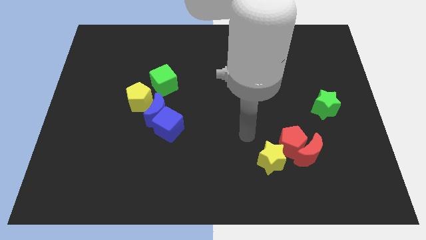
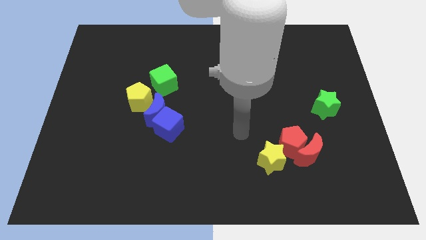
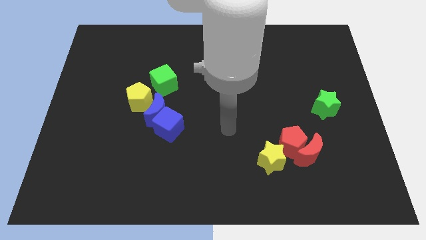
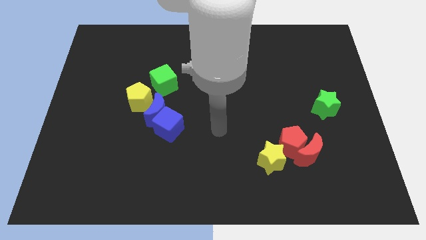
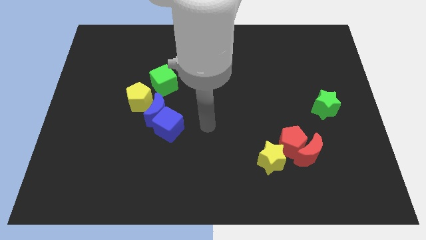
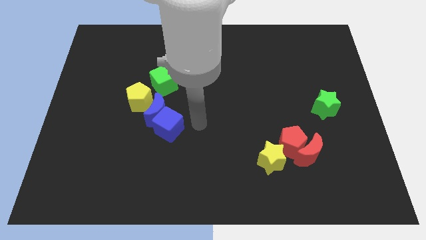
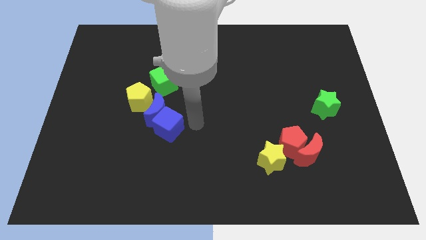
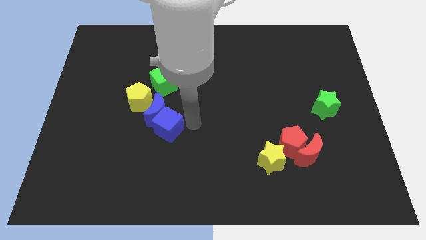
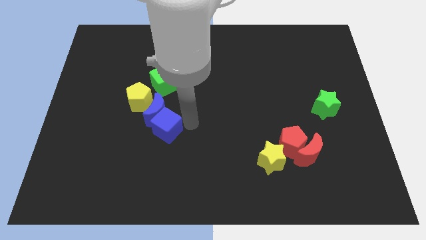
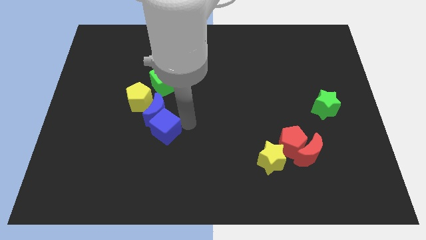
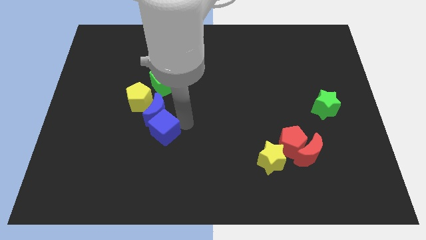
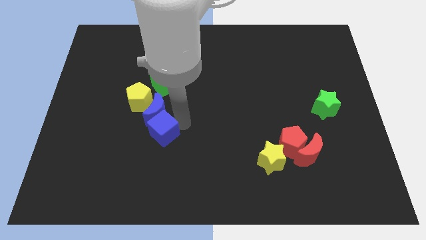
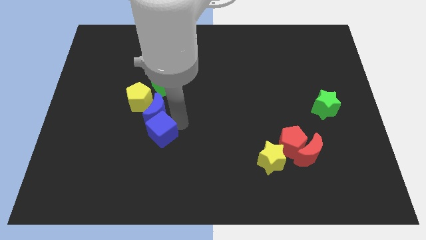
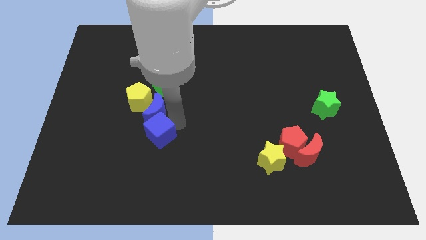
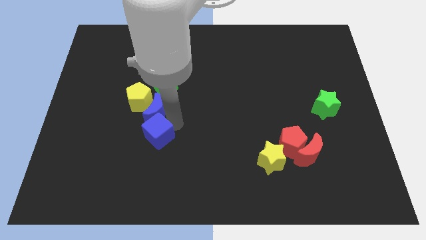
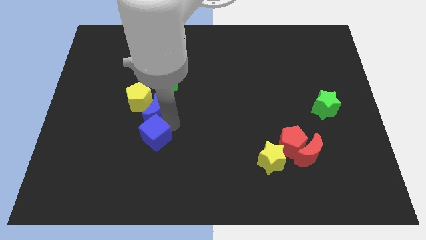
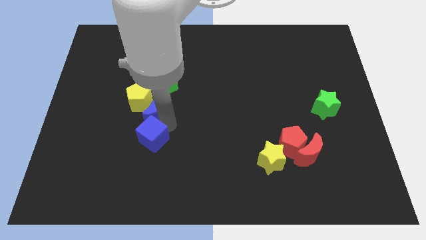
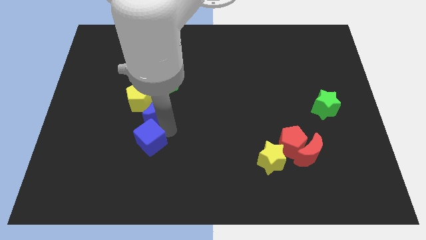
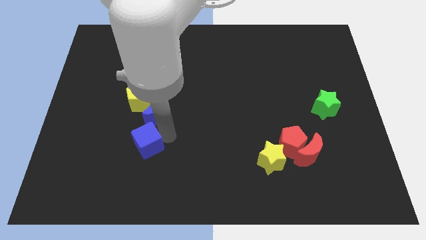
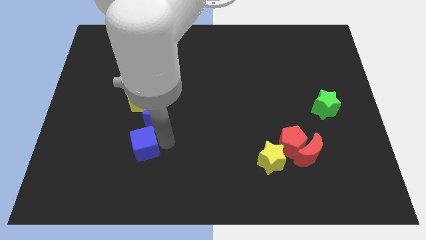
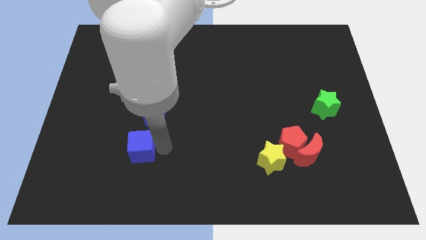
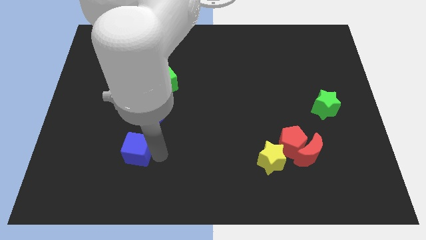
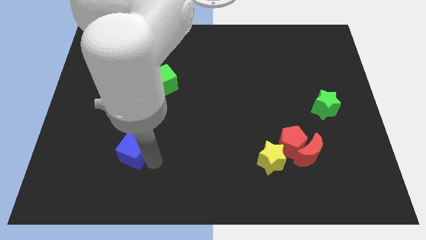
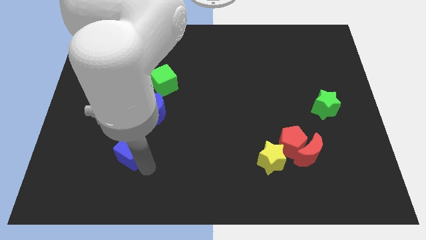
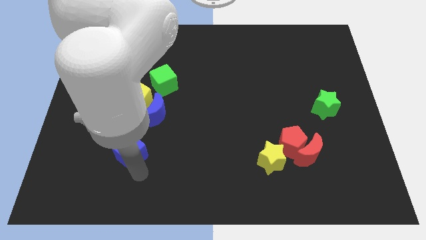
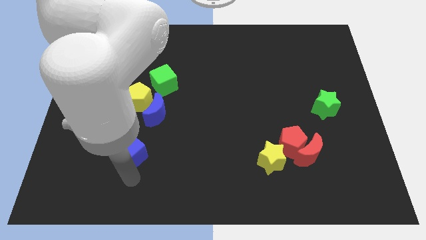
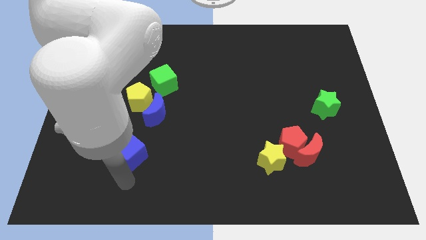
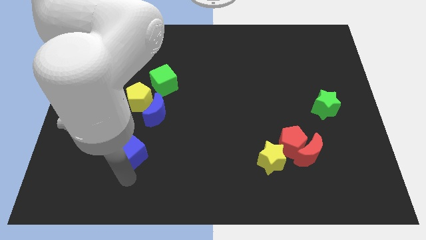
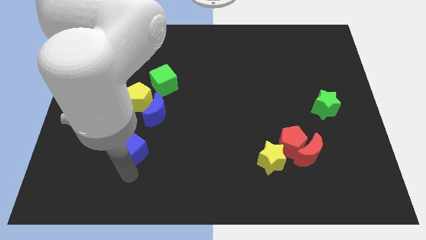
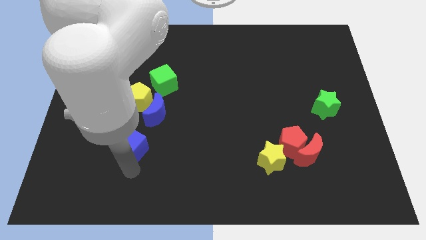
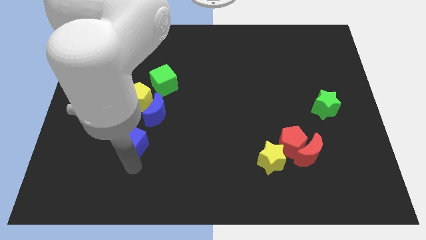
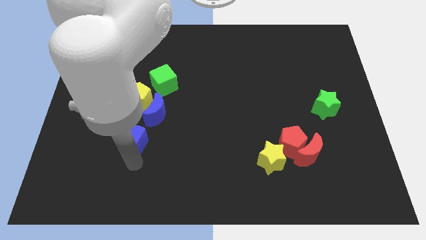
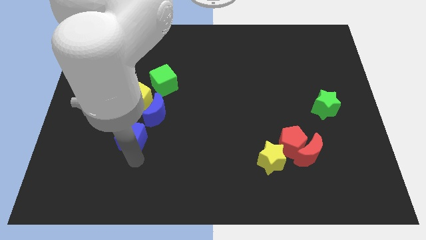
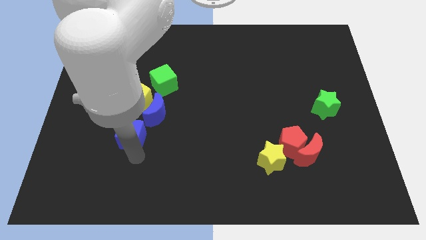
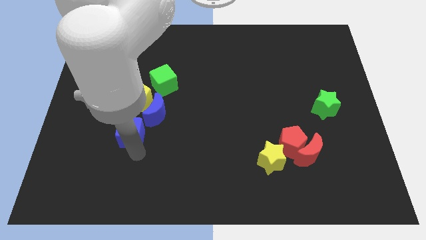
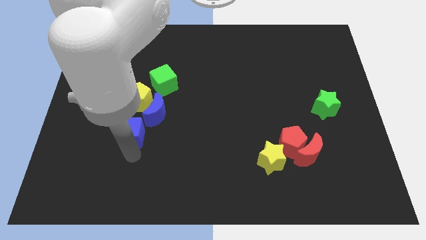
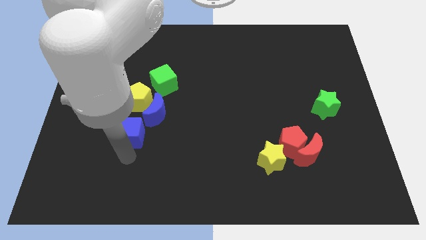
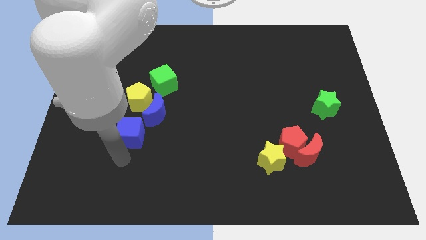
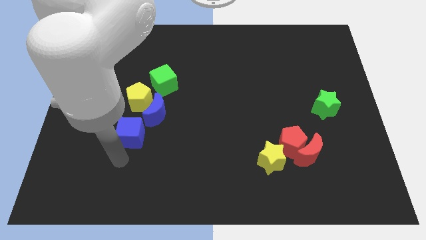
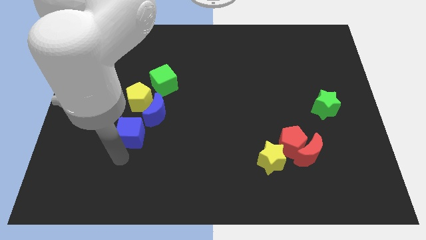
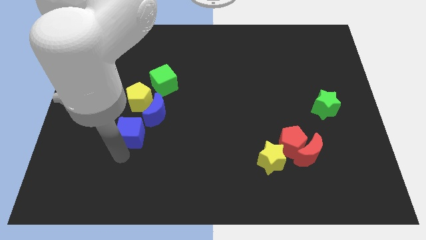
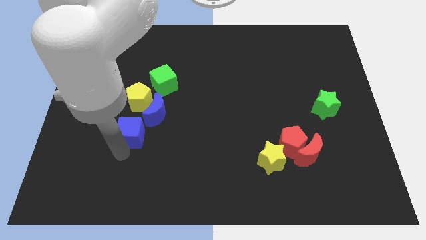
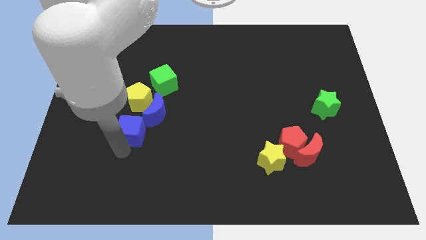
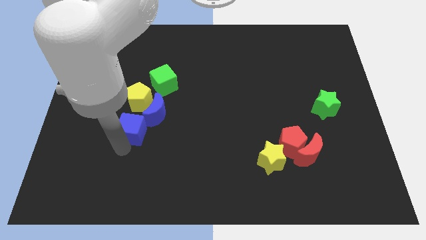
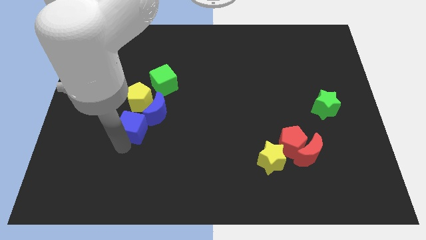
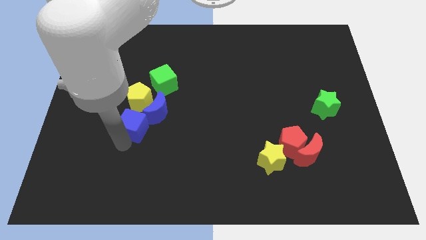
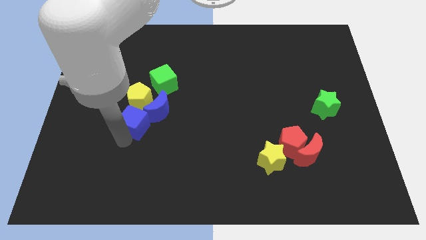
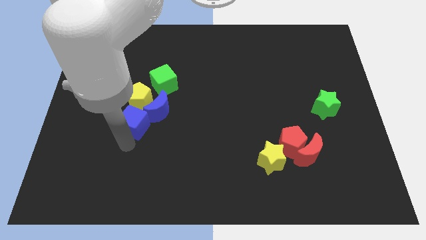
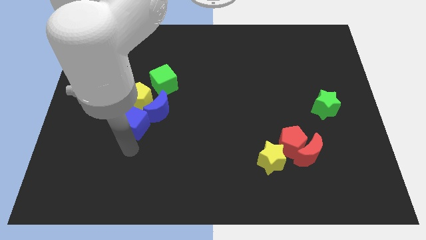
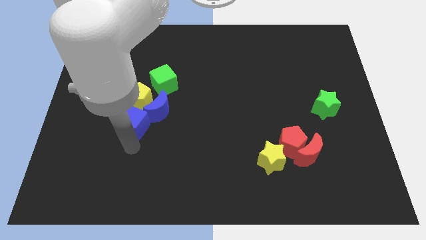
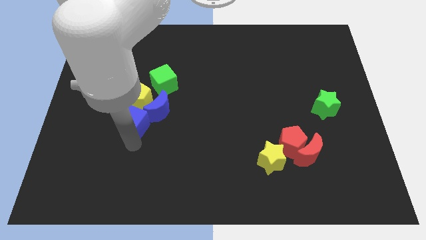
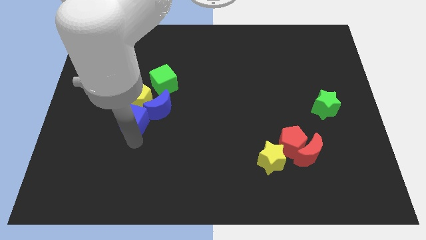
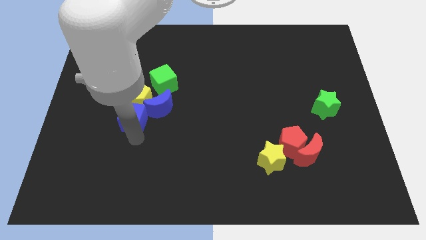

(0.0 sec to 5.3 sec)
slide the blue cube close to the yellow pentagon

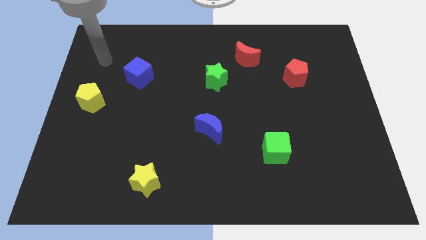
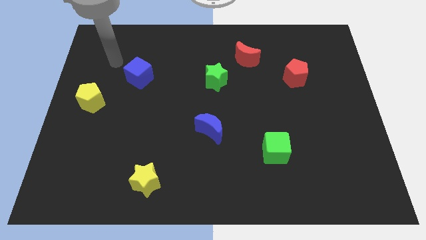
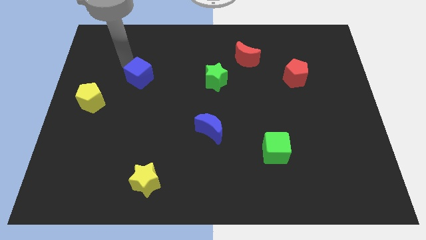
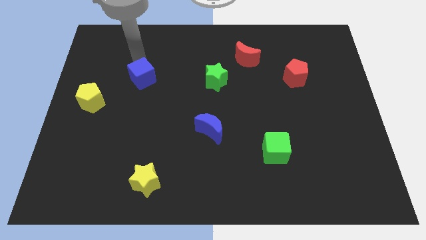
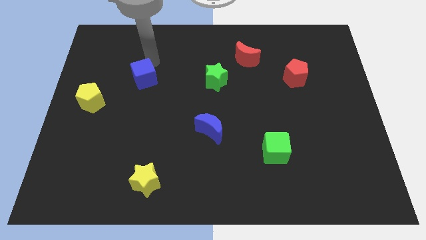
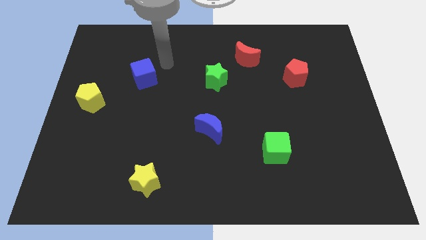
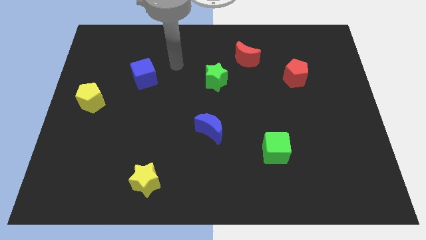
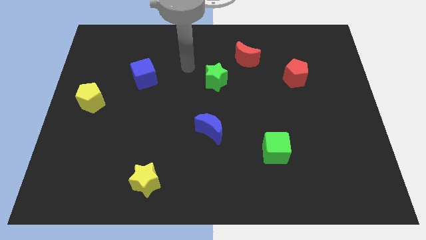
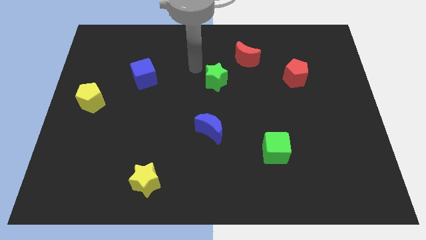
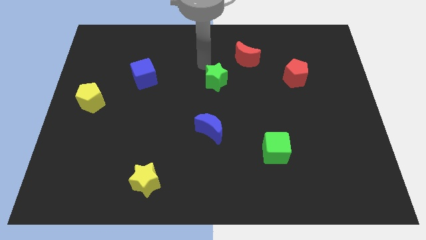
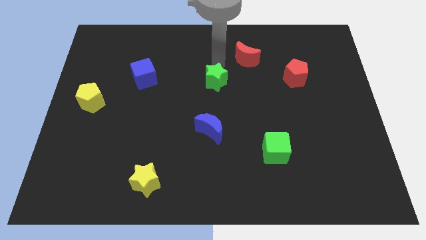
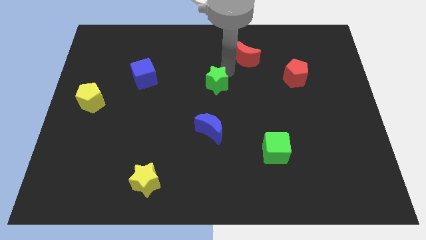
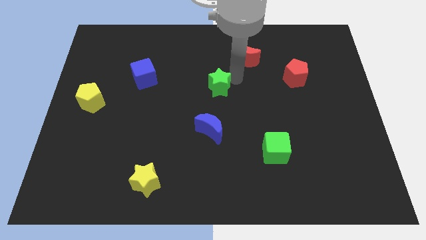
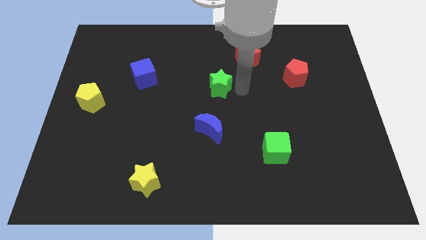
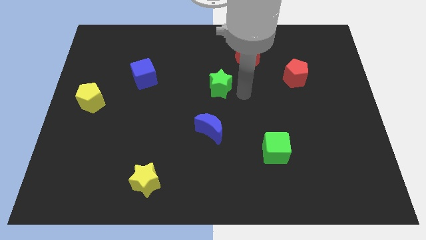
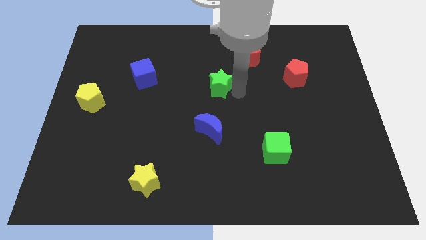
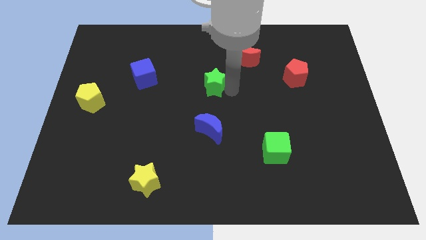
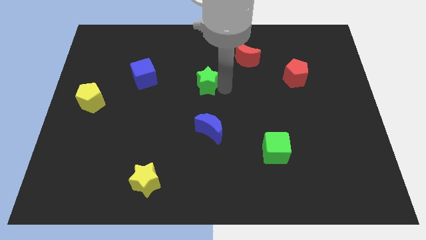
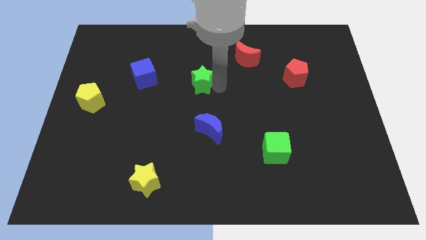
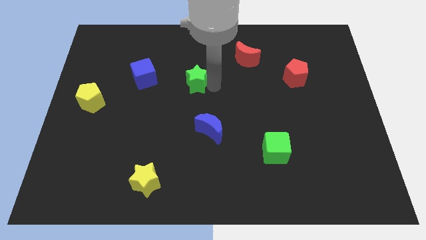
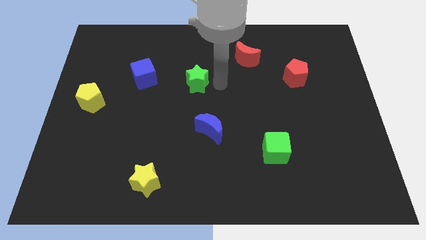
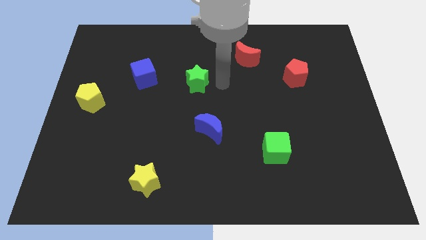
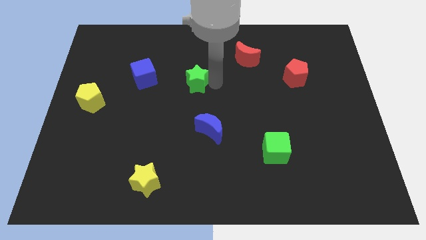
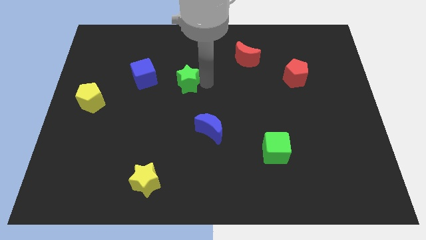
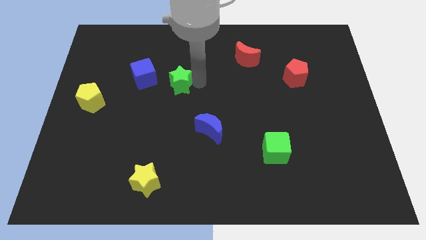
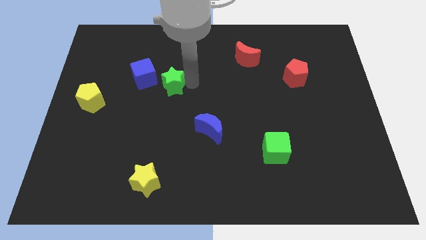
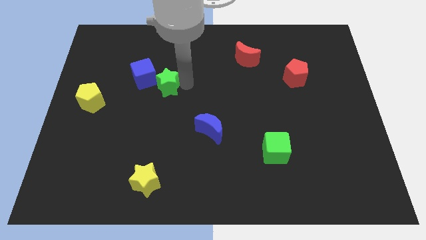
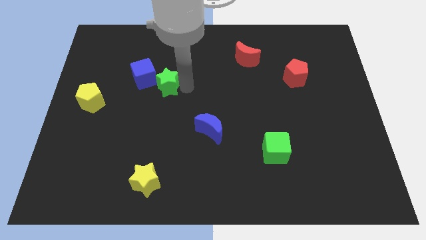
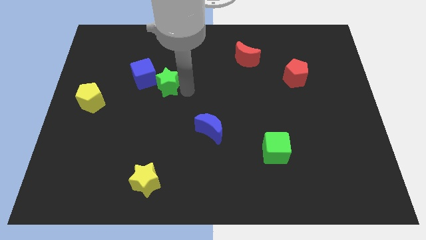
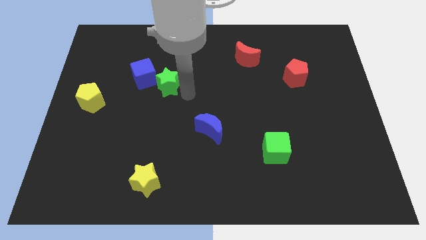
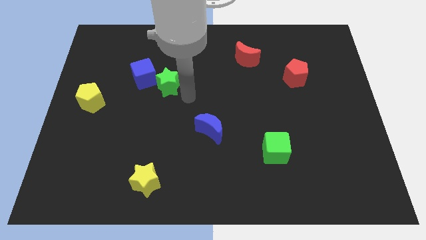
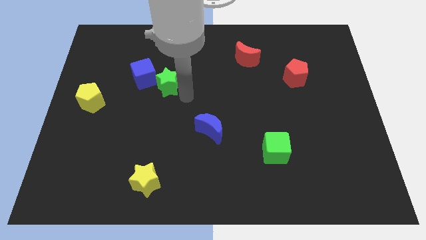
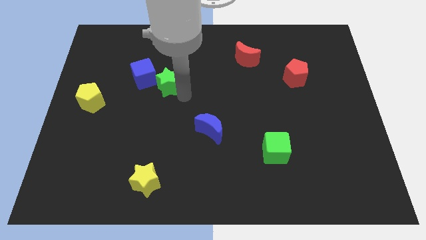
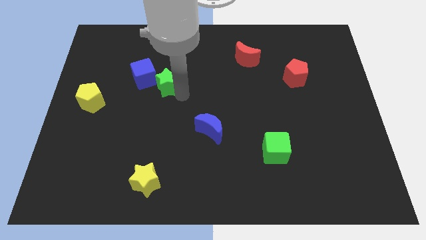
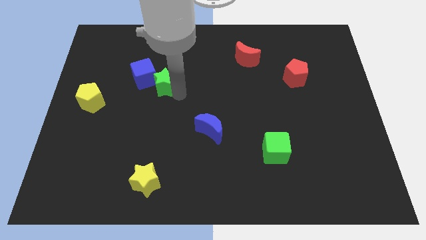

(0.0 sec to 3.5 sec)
move the green star to the blue cube
